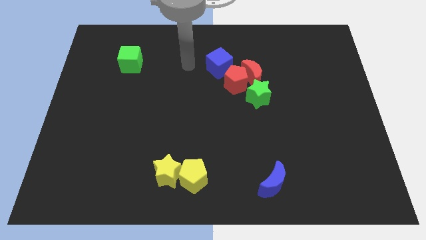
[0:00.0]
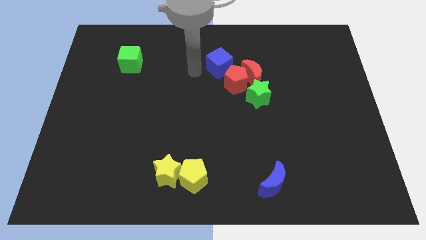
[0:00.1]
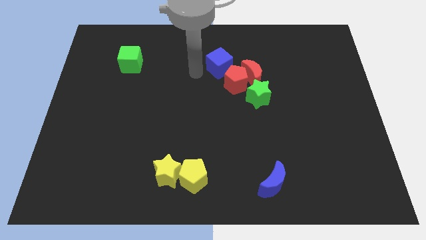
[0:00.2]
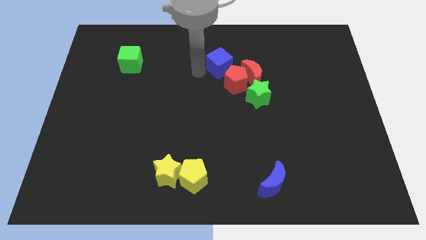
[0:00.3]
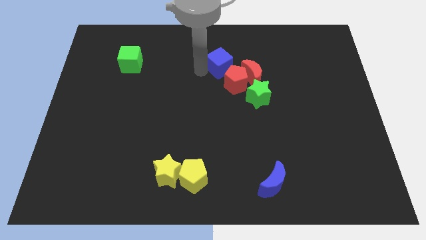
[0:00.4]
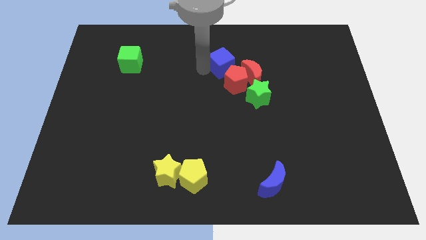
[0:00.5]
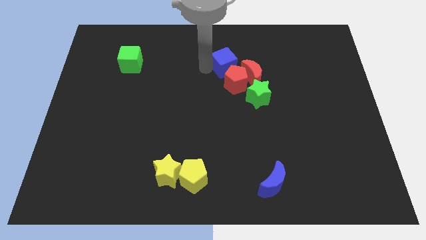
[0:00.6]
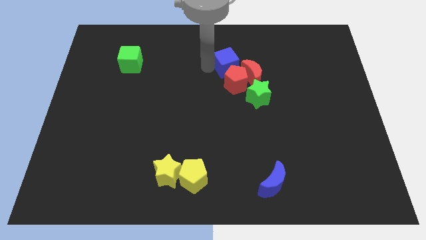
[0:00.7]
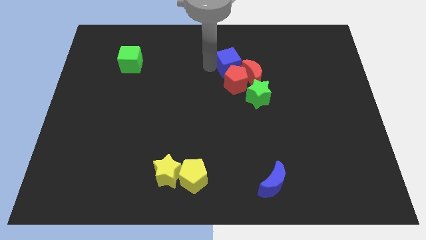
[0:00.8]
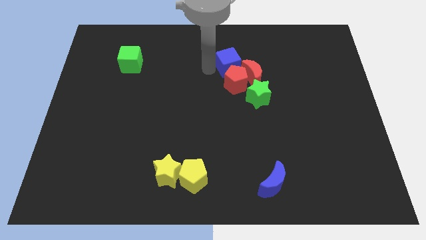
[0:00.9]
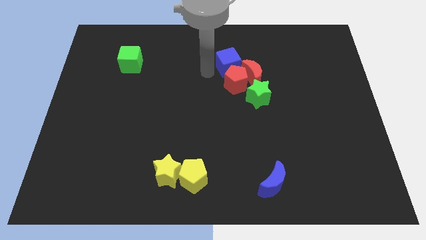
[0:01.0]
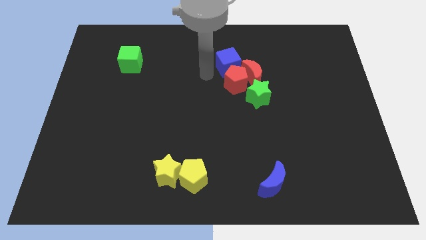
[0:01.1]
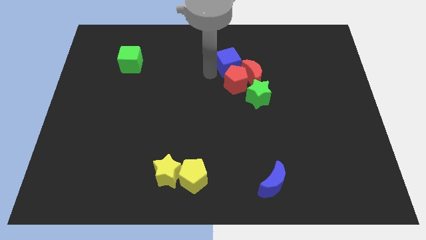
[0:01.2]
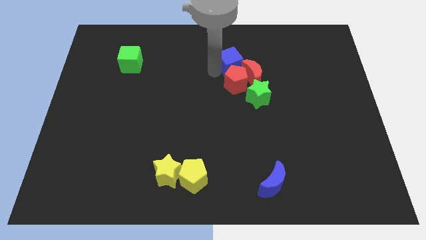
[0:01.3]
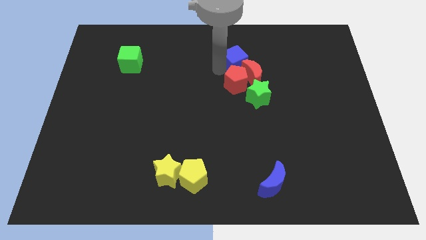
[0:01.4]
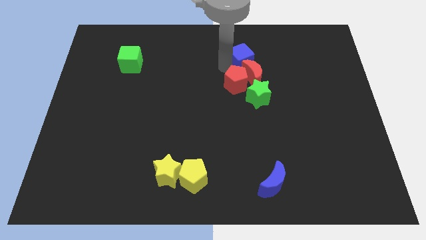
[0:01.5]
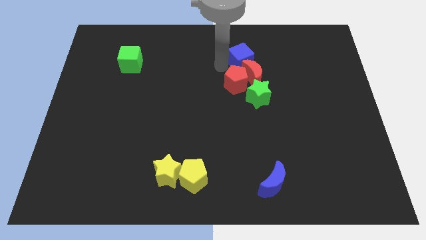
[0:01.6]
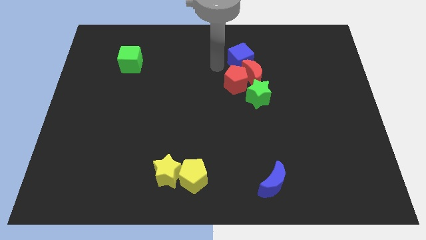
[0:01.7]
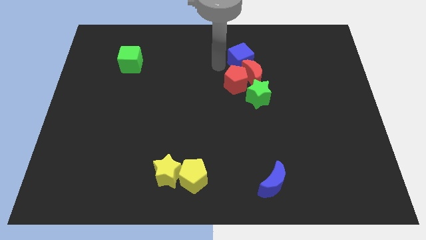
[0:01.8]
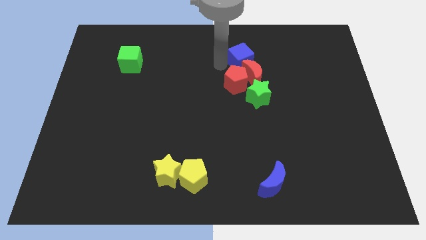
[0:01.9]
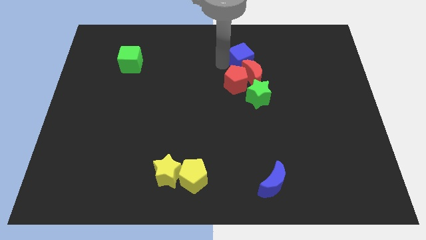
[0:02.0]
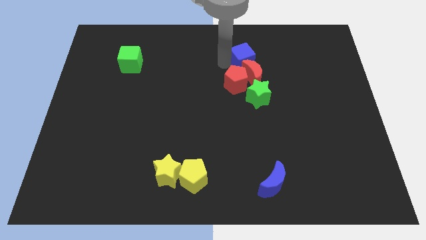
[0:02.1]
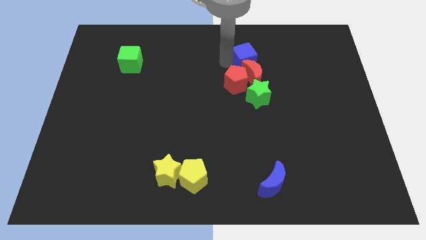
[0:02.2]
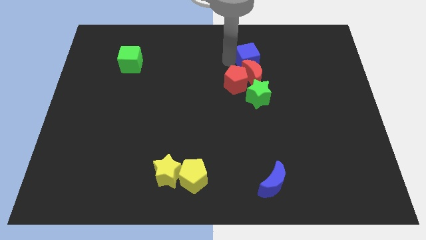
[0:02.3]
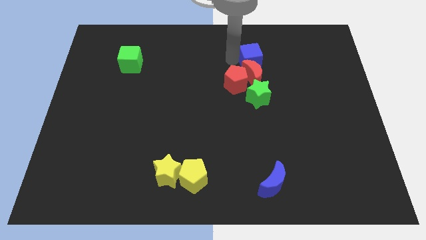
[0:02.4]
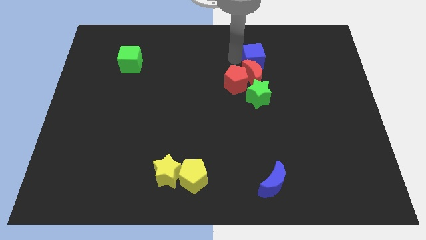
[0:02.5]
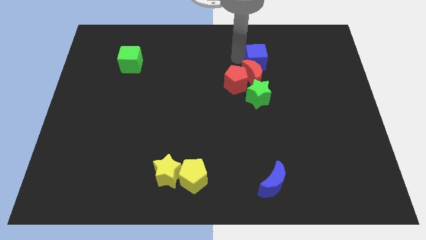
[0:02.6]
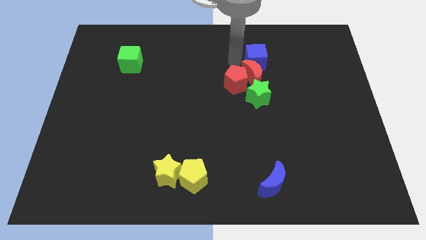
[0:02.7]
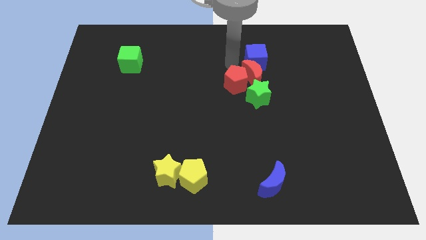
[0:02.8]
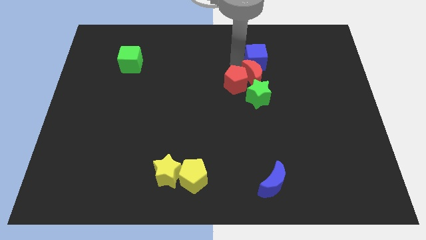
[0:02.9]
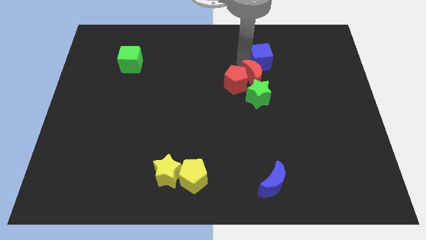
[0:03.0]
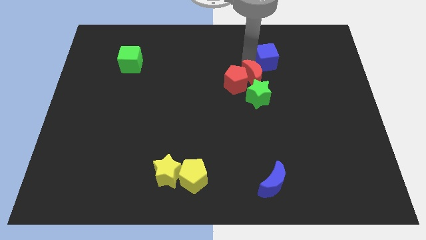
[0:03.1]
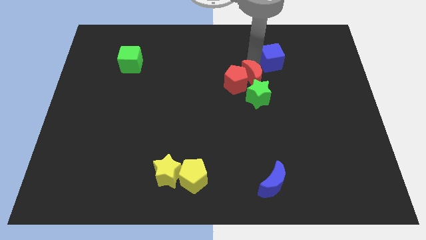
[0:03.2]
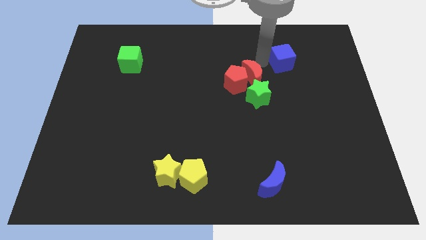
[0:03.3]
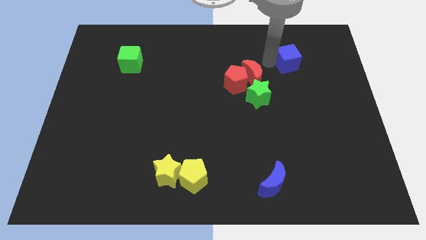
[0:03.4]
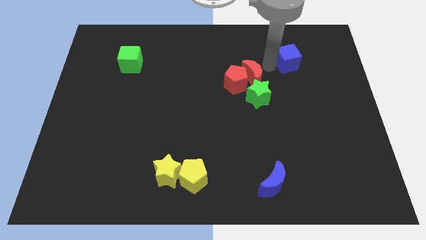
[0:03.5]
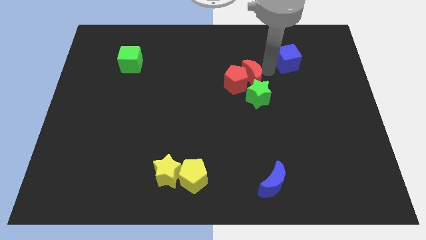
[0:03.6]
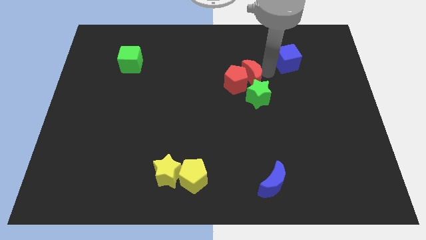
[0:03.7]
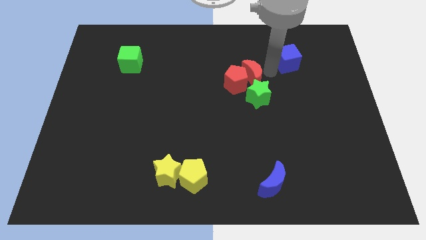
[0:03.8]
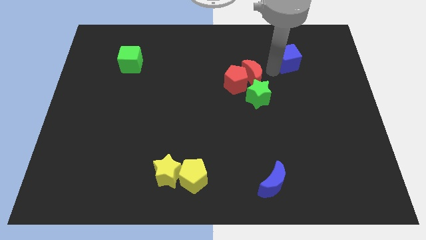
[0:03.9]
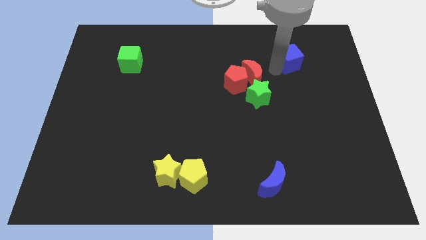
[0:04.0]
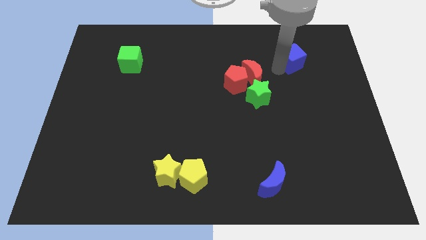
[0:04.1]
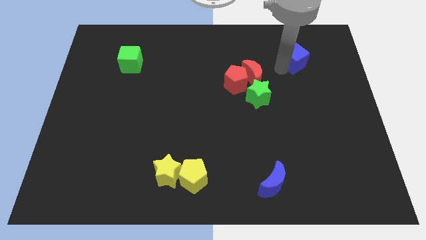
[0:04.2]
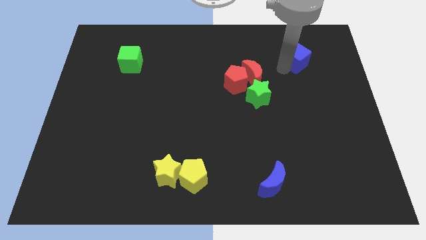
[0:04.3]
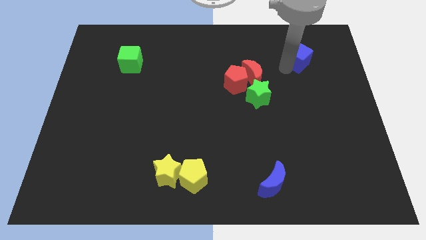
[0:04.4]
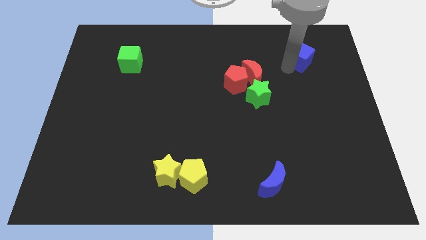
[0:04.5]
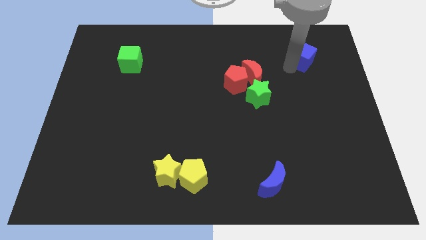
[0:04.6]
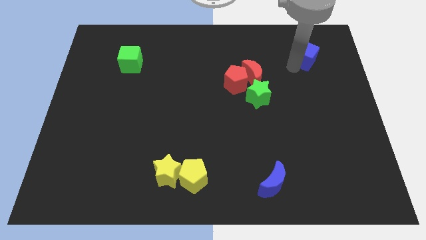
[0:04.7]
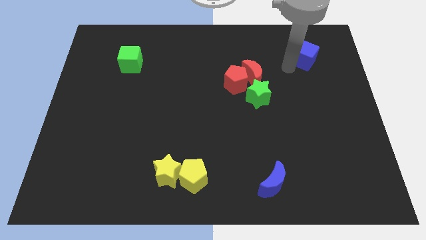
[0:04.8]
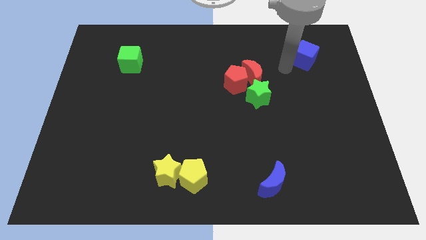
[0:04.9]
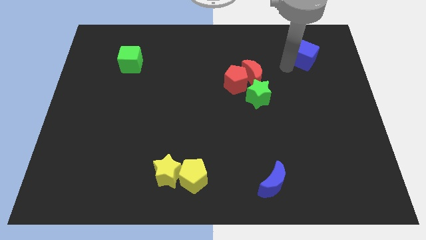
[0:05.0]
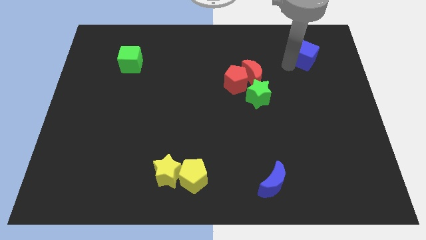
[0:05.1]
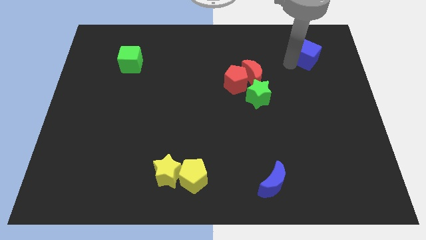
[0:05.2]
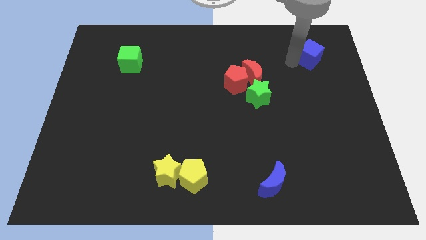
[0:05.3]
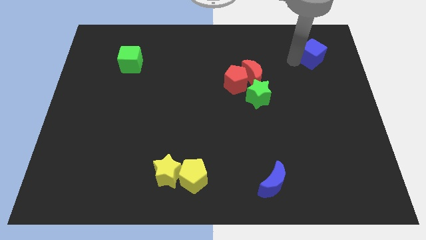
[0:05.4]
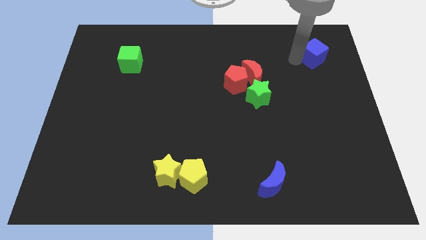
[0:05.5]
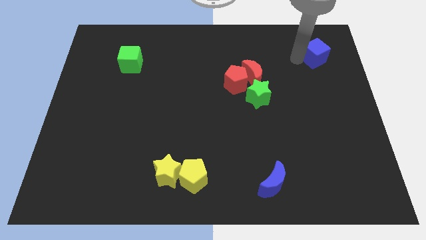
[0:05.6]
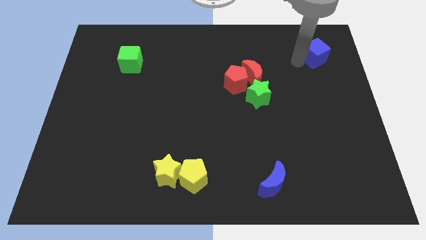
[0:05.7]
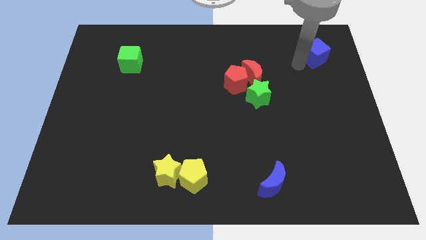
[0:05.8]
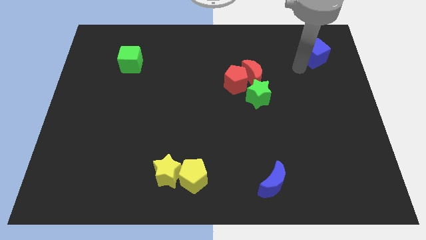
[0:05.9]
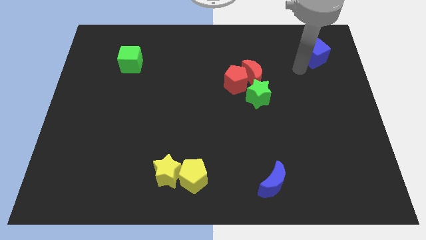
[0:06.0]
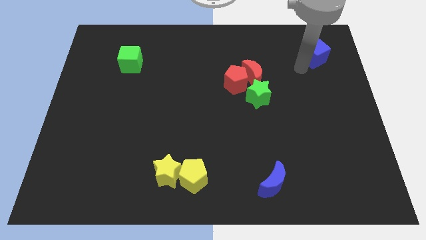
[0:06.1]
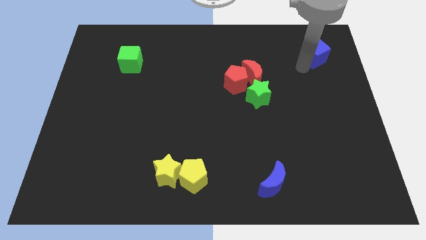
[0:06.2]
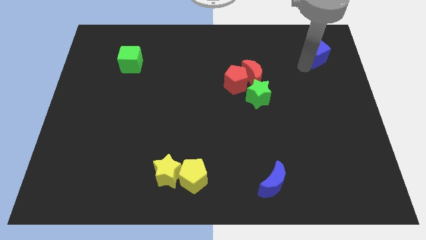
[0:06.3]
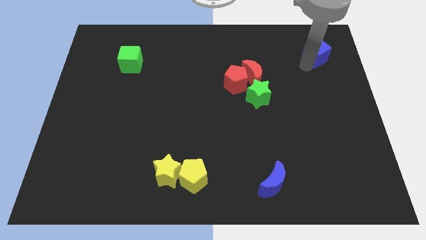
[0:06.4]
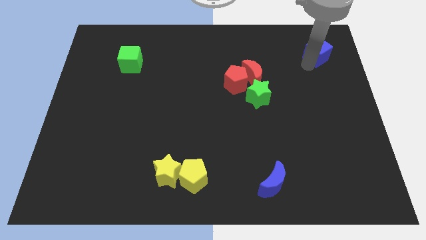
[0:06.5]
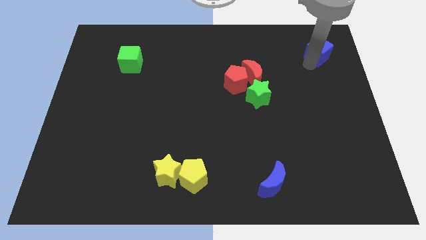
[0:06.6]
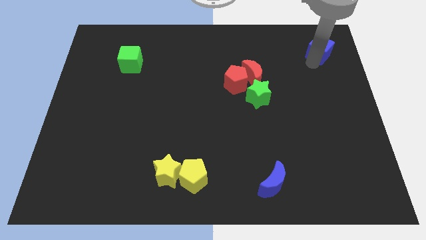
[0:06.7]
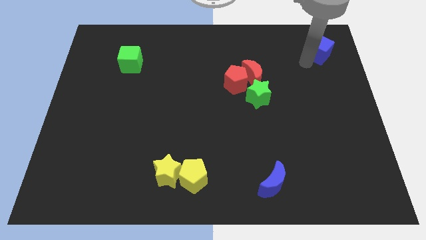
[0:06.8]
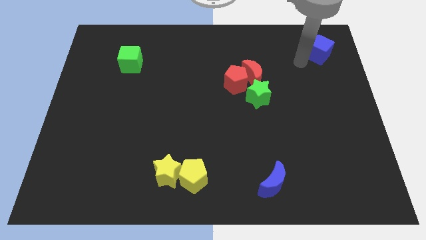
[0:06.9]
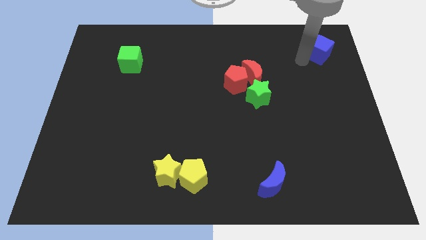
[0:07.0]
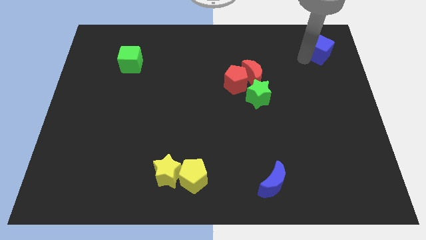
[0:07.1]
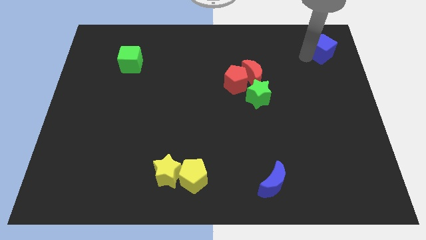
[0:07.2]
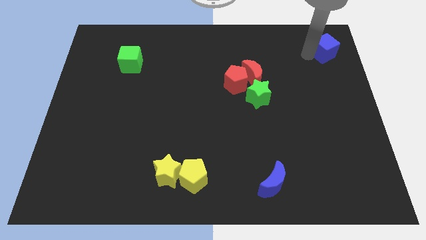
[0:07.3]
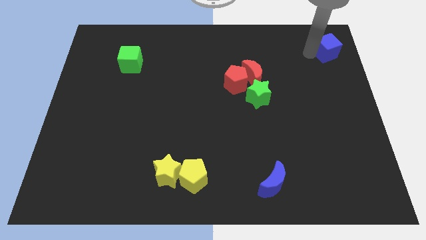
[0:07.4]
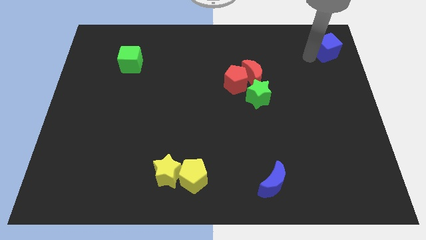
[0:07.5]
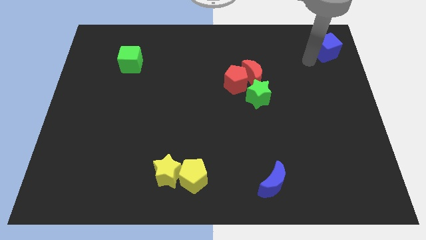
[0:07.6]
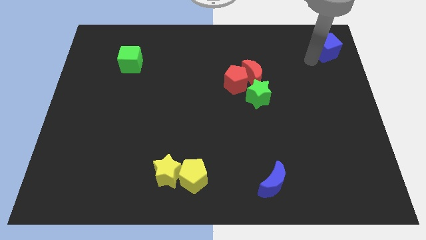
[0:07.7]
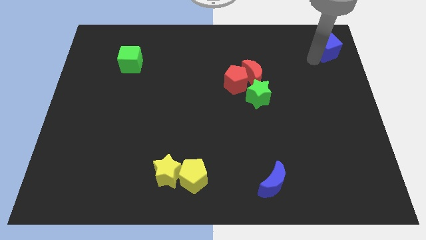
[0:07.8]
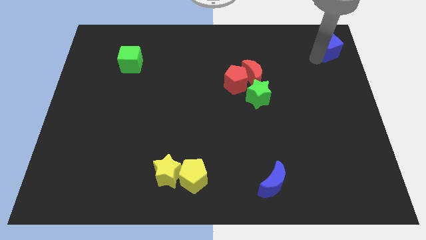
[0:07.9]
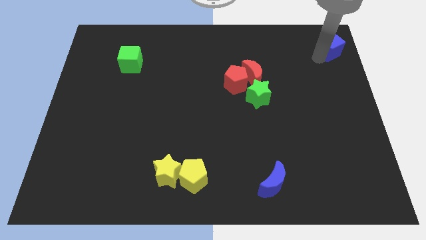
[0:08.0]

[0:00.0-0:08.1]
put the blue cube to the top right of the board

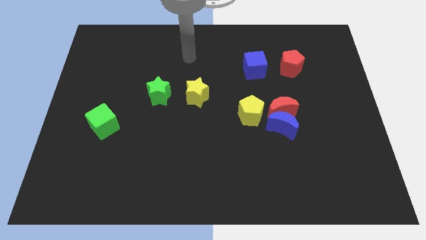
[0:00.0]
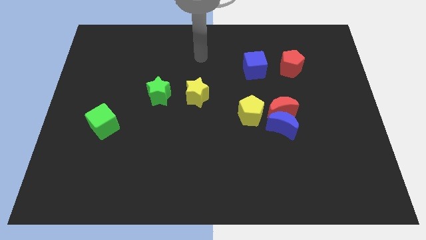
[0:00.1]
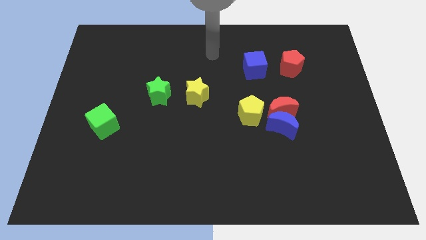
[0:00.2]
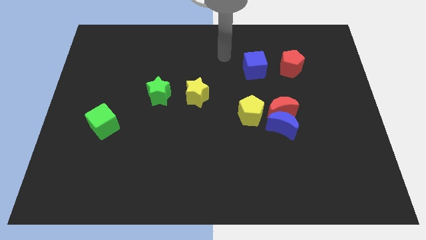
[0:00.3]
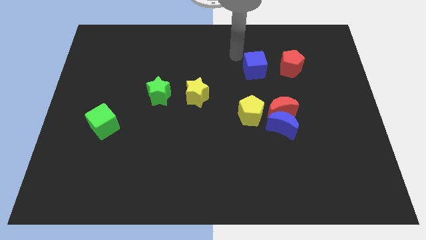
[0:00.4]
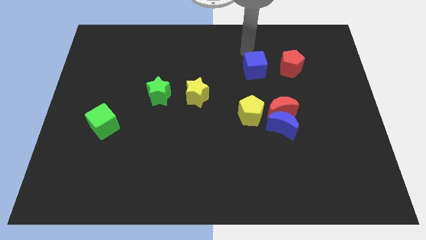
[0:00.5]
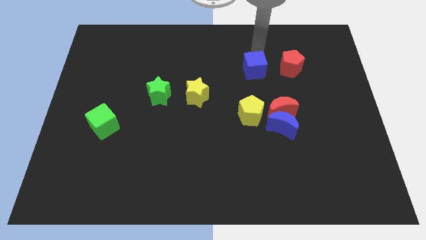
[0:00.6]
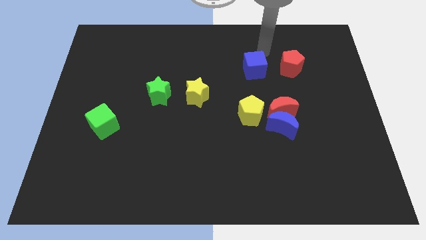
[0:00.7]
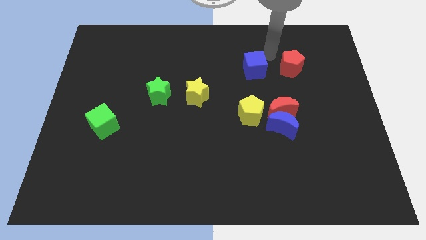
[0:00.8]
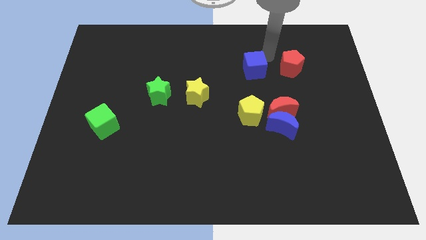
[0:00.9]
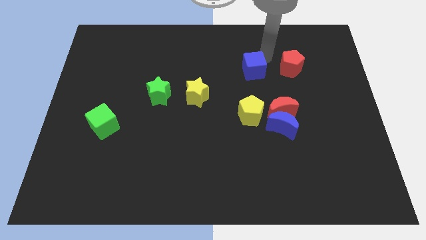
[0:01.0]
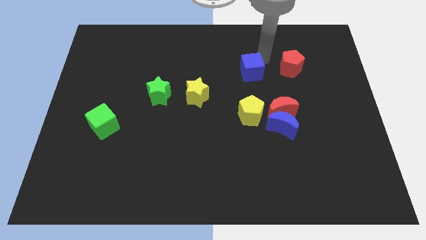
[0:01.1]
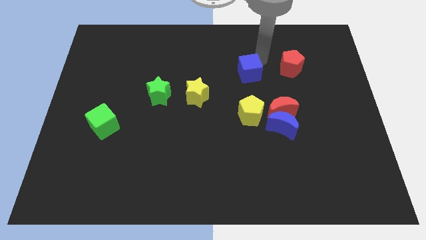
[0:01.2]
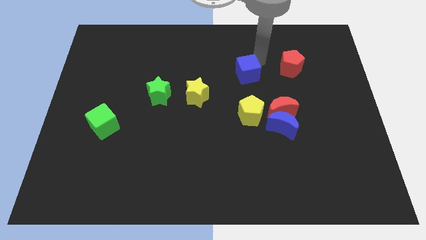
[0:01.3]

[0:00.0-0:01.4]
put the blue cube to the center of the board
